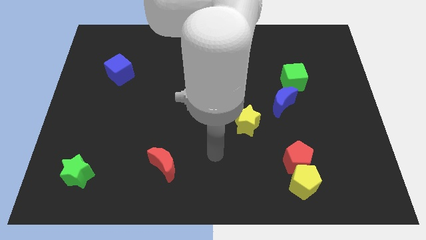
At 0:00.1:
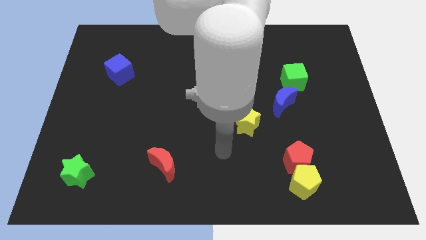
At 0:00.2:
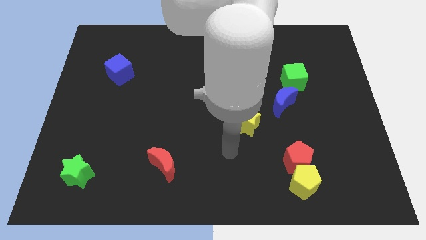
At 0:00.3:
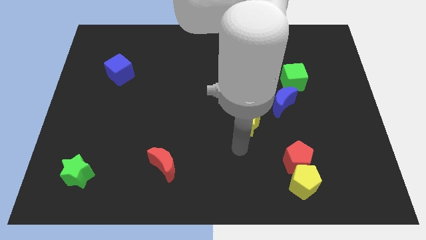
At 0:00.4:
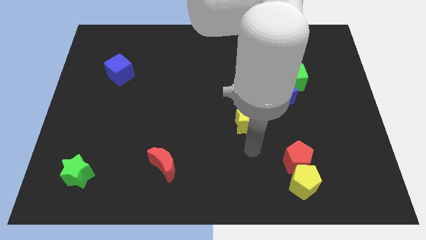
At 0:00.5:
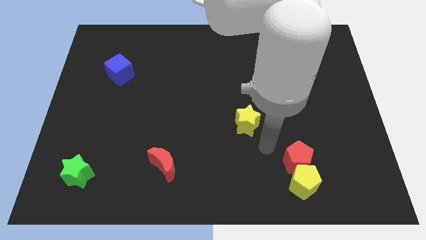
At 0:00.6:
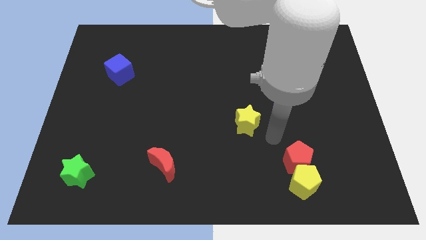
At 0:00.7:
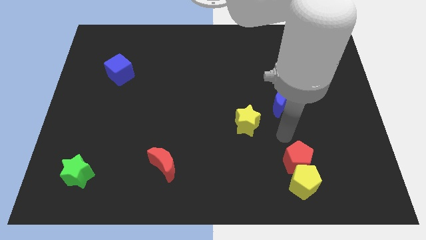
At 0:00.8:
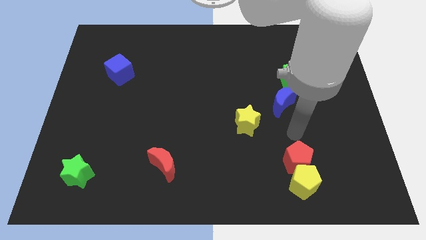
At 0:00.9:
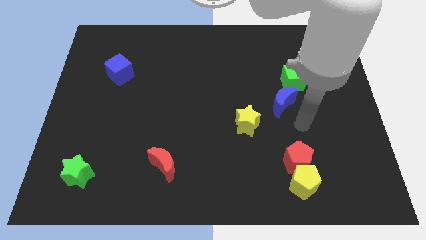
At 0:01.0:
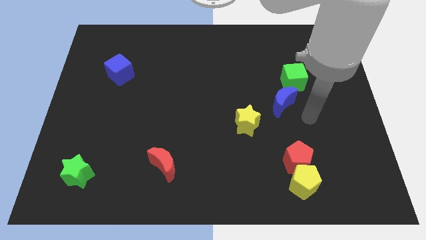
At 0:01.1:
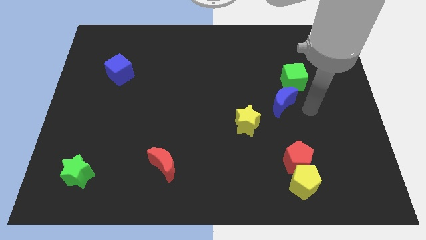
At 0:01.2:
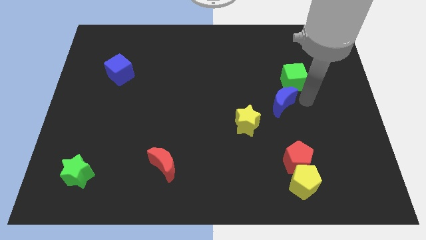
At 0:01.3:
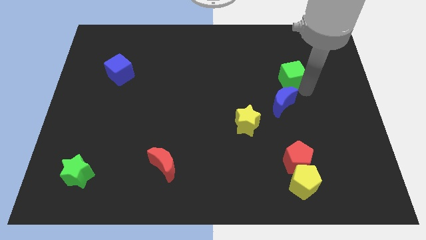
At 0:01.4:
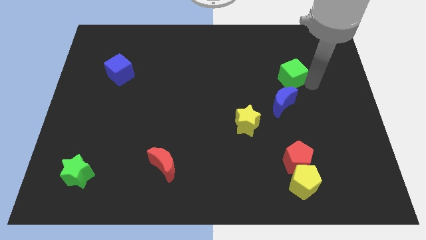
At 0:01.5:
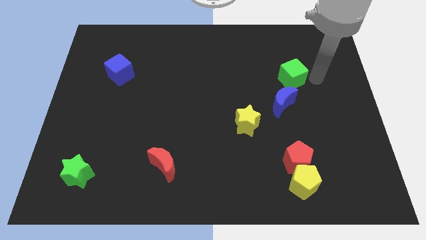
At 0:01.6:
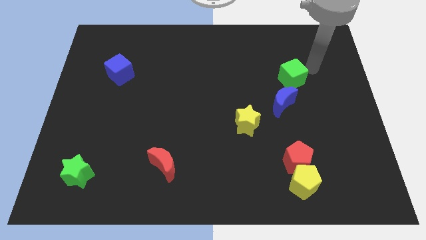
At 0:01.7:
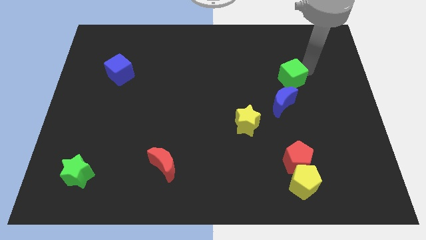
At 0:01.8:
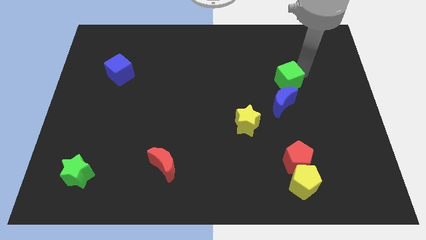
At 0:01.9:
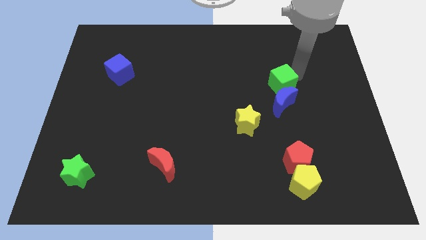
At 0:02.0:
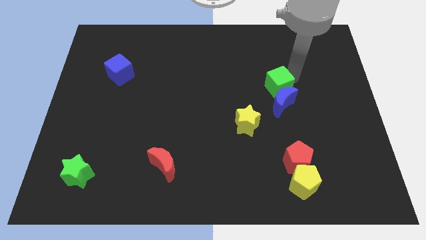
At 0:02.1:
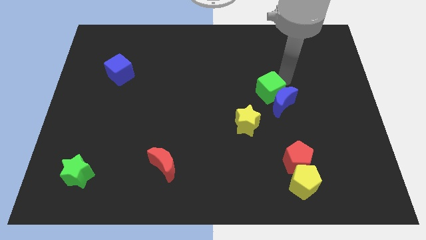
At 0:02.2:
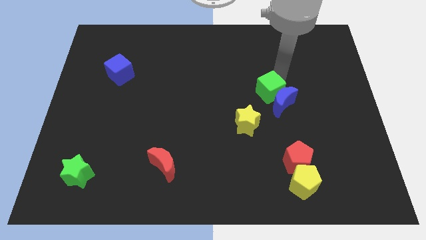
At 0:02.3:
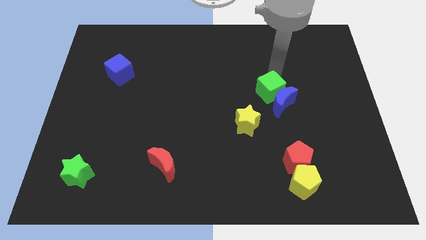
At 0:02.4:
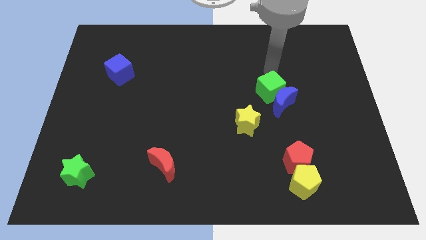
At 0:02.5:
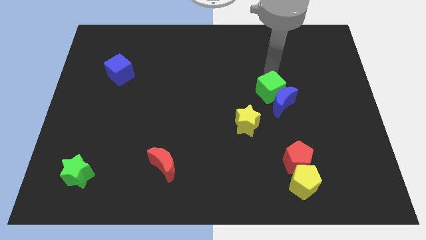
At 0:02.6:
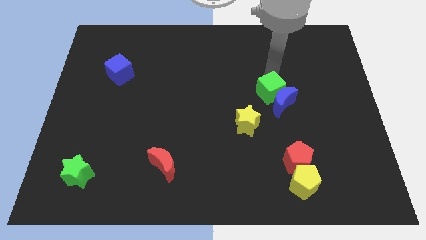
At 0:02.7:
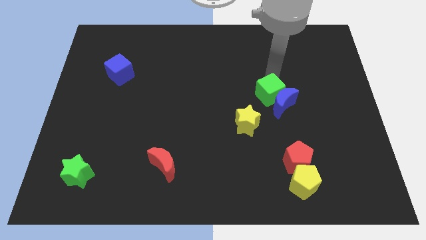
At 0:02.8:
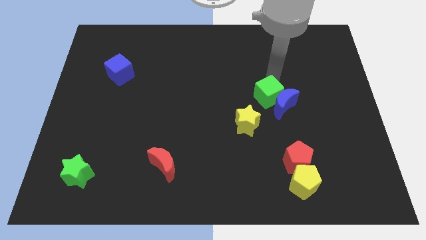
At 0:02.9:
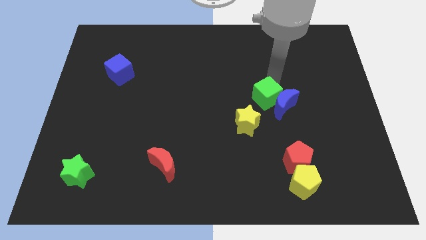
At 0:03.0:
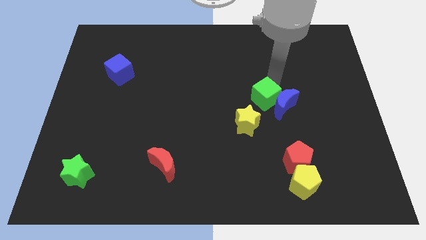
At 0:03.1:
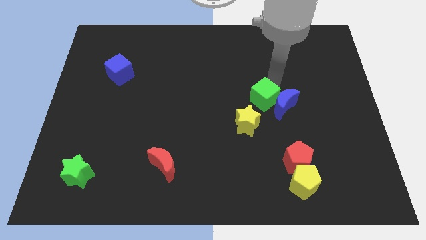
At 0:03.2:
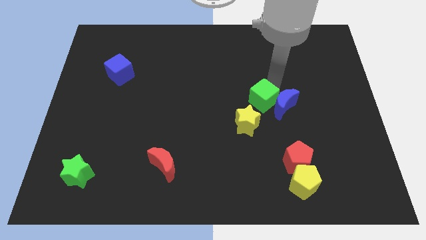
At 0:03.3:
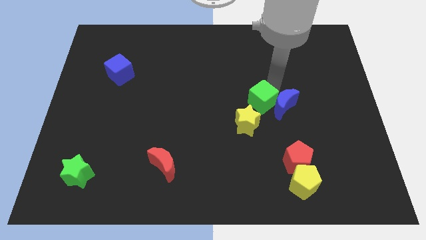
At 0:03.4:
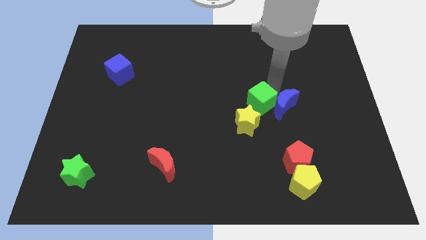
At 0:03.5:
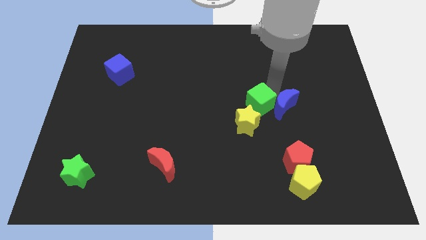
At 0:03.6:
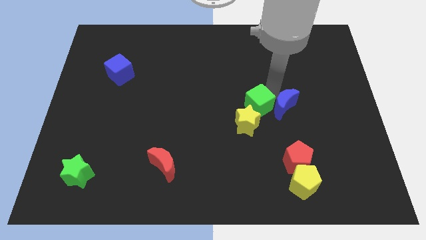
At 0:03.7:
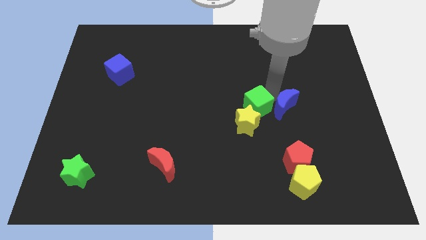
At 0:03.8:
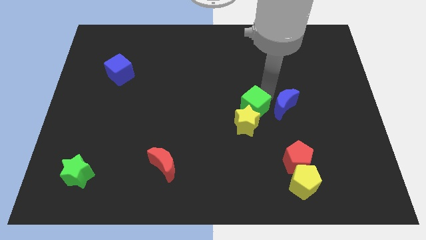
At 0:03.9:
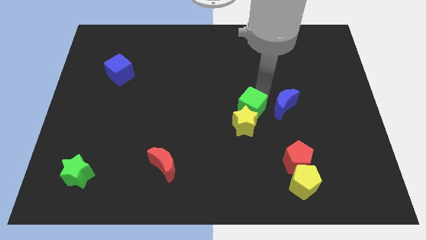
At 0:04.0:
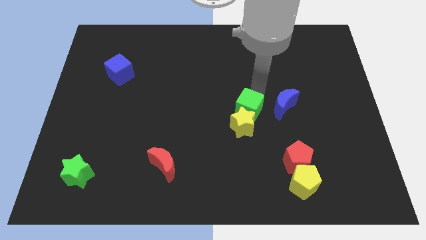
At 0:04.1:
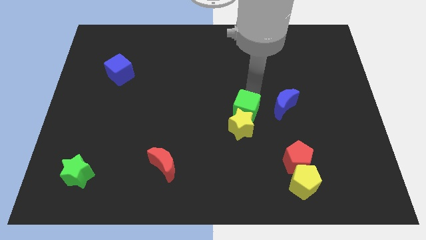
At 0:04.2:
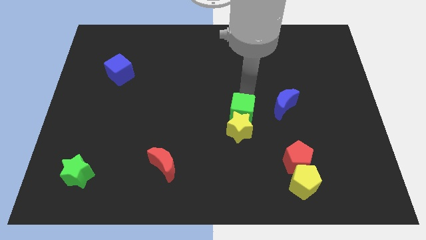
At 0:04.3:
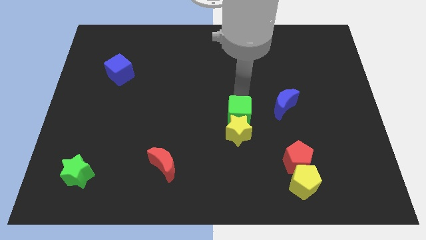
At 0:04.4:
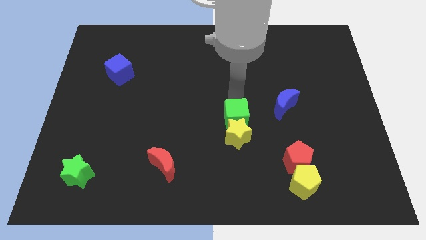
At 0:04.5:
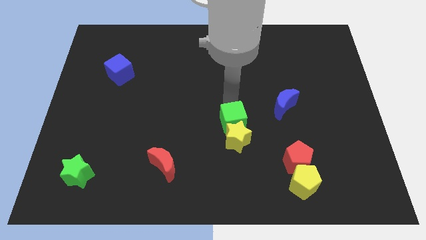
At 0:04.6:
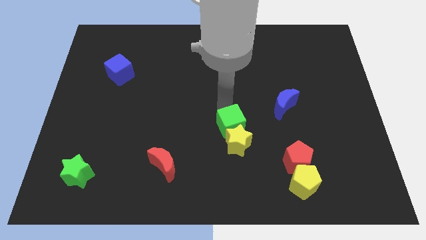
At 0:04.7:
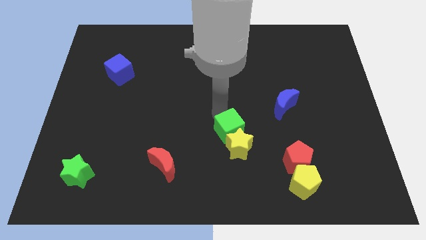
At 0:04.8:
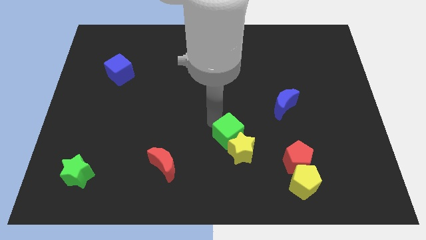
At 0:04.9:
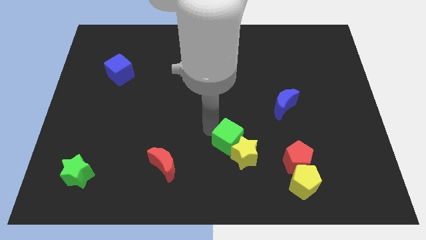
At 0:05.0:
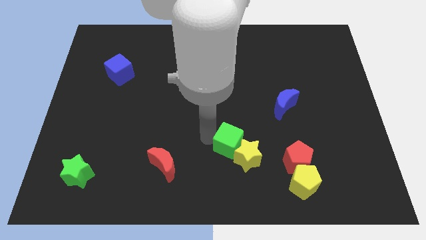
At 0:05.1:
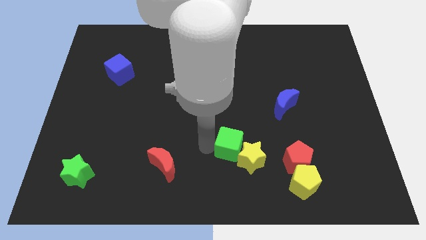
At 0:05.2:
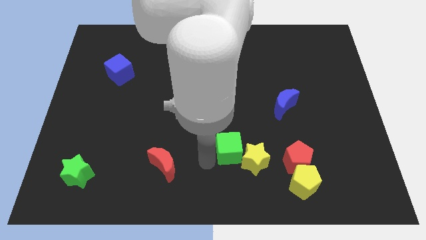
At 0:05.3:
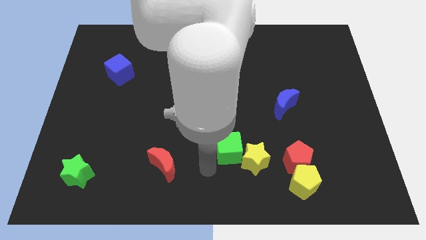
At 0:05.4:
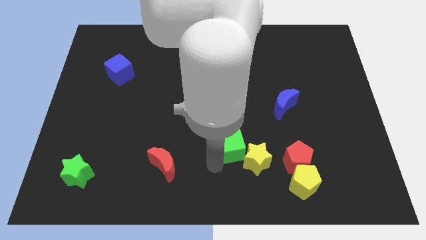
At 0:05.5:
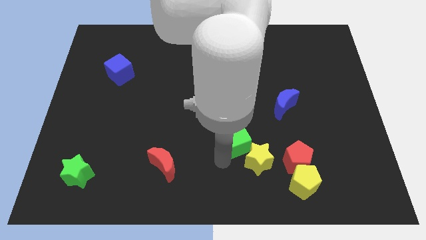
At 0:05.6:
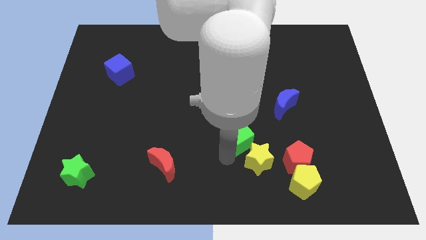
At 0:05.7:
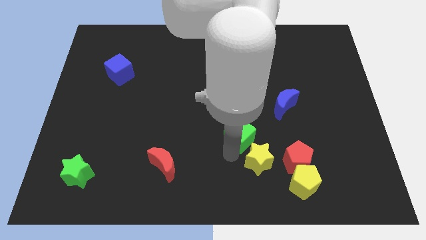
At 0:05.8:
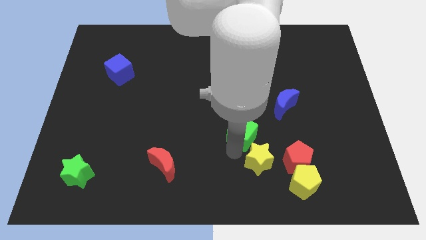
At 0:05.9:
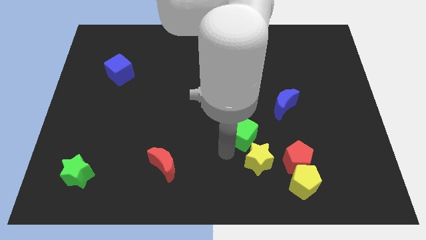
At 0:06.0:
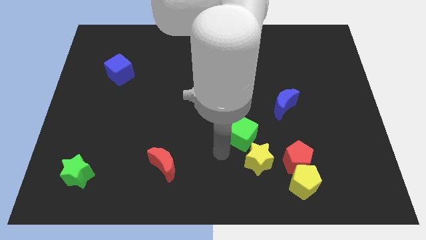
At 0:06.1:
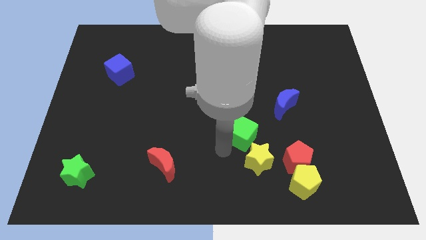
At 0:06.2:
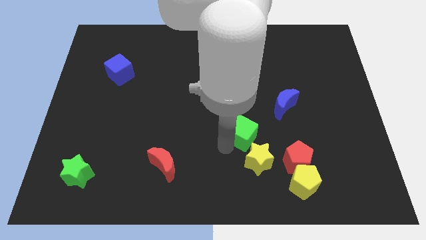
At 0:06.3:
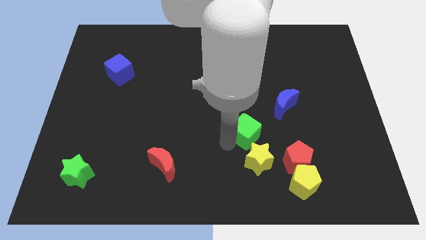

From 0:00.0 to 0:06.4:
push the green cube diagonally up and to the left of the red pentagon

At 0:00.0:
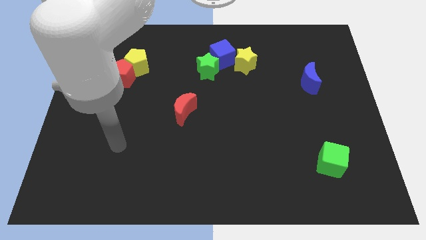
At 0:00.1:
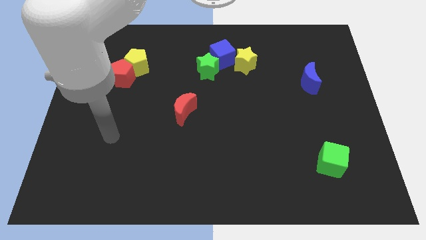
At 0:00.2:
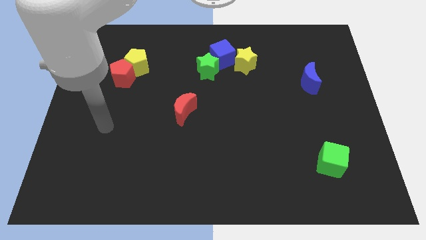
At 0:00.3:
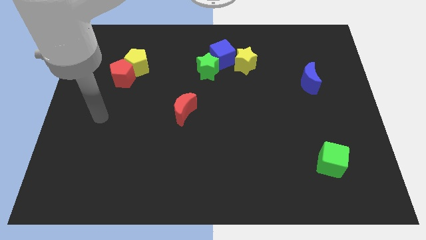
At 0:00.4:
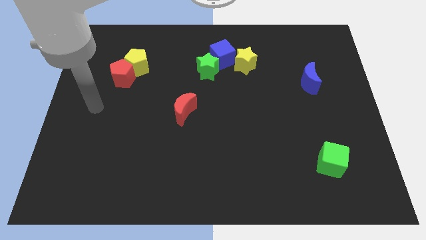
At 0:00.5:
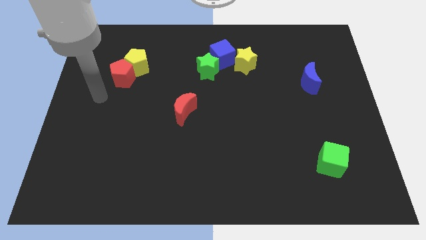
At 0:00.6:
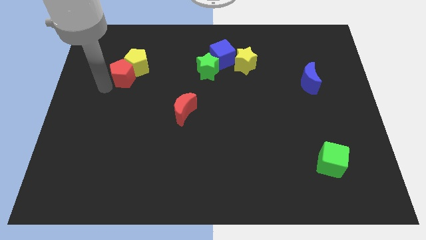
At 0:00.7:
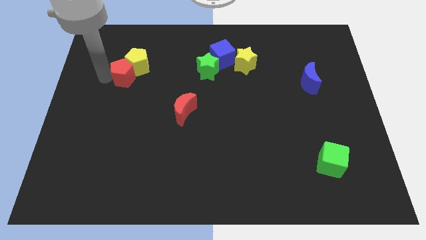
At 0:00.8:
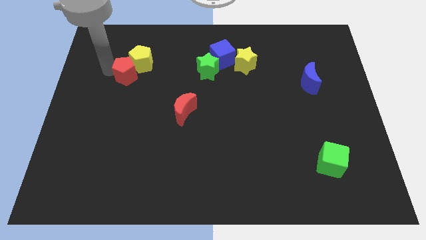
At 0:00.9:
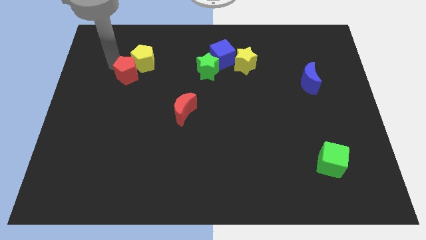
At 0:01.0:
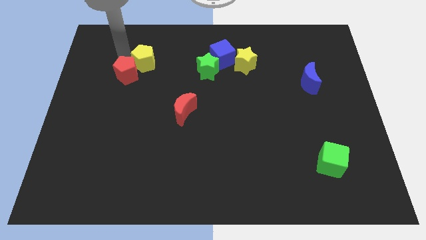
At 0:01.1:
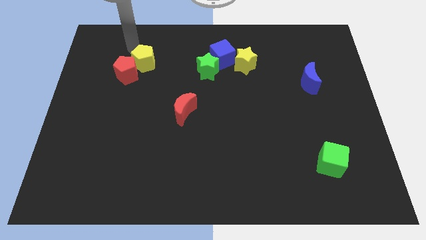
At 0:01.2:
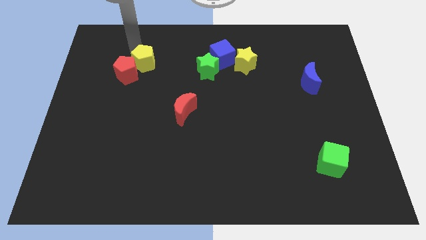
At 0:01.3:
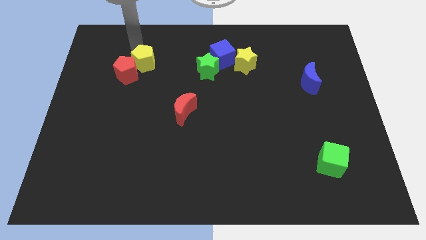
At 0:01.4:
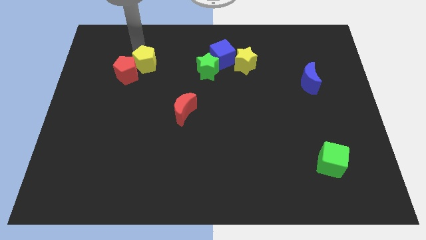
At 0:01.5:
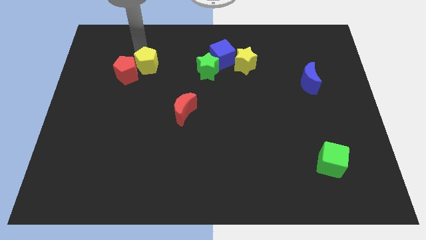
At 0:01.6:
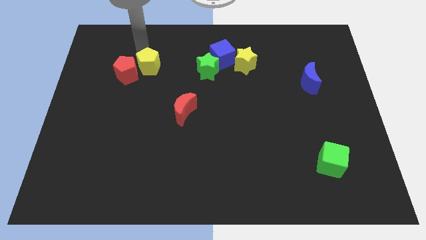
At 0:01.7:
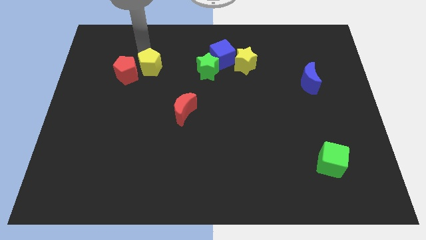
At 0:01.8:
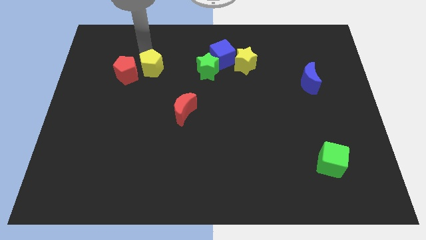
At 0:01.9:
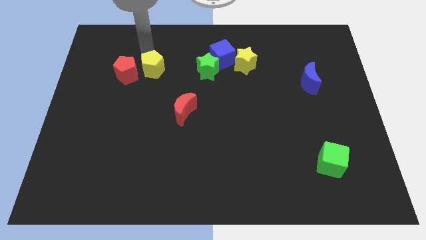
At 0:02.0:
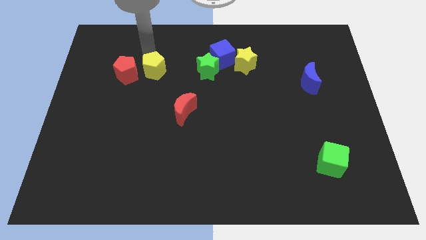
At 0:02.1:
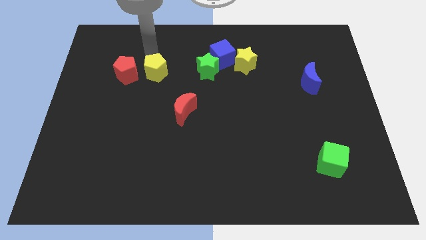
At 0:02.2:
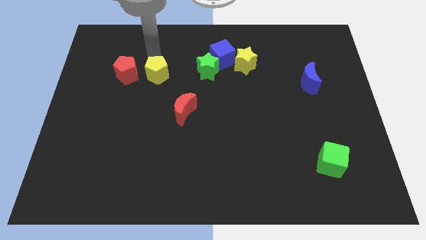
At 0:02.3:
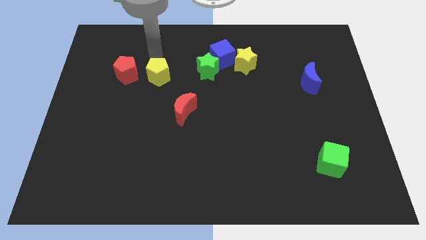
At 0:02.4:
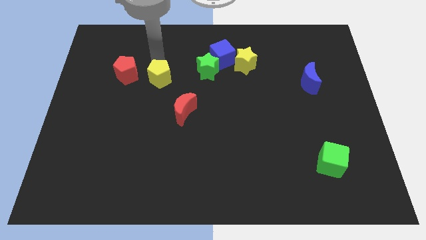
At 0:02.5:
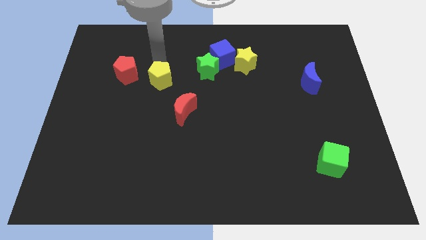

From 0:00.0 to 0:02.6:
move the yellow pentagon to the top left of the red moon
